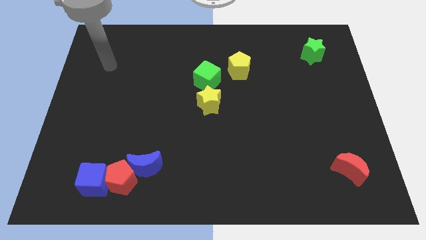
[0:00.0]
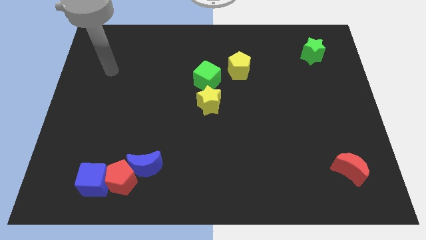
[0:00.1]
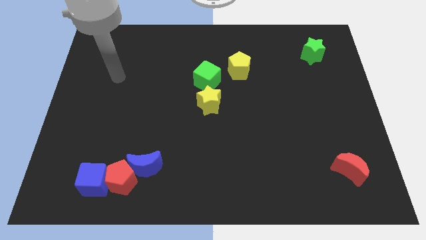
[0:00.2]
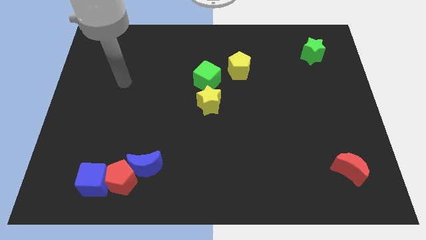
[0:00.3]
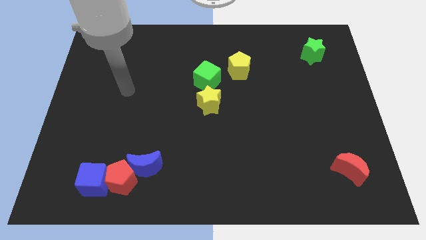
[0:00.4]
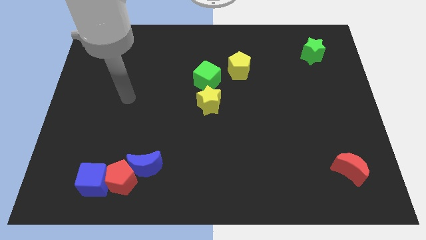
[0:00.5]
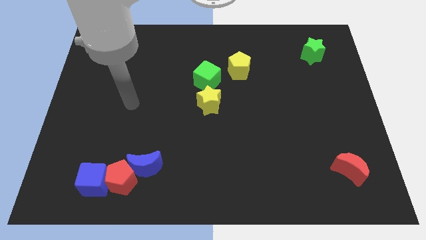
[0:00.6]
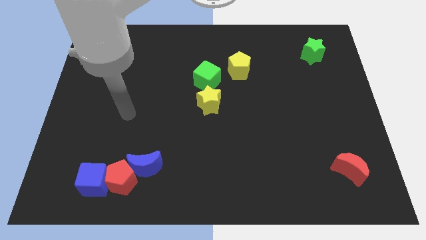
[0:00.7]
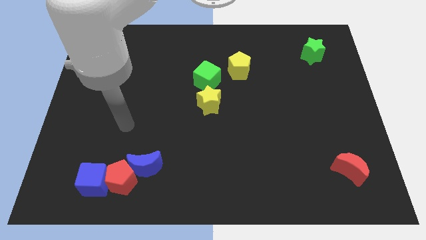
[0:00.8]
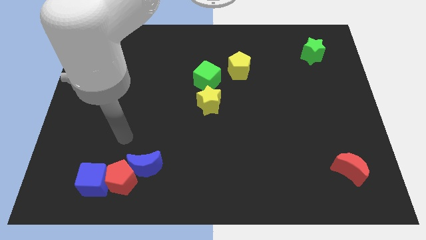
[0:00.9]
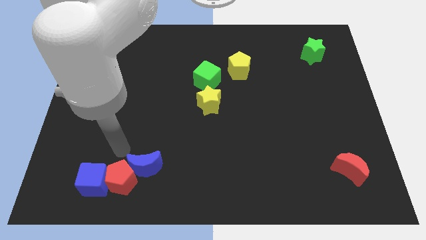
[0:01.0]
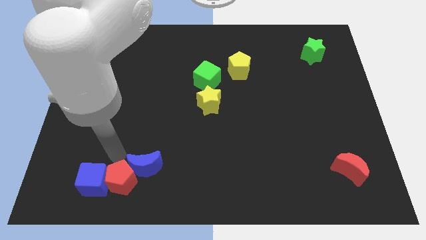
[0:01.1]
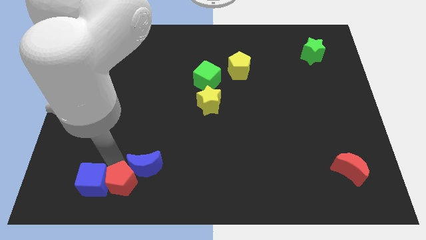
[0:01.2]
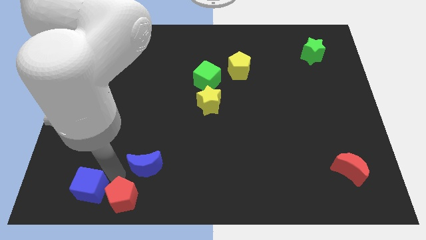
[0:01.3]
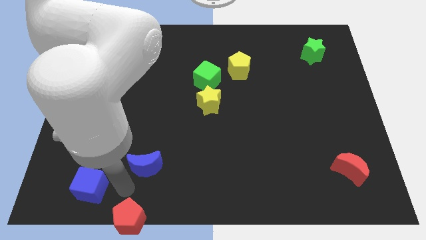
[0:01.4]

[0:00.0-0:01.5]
pull the blue moon apart from the red pentagon

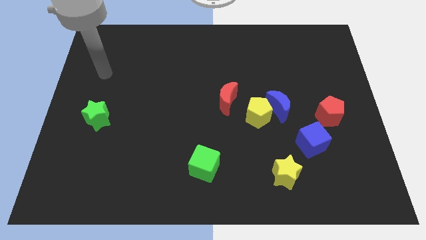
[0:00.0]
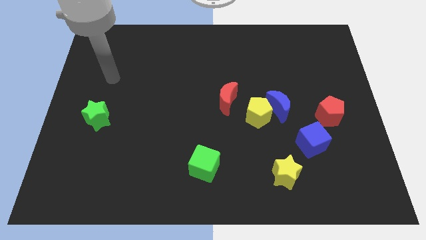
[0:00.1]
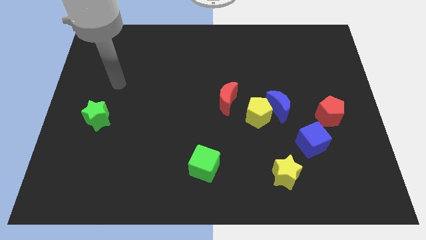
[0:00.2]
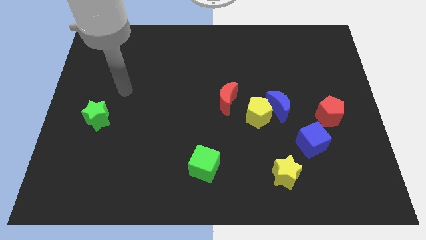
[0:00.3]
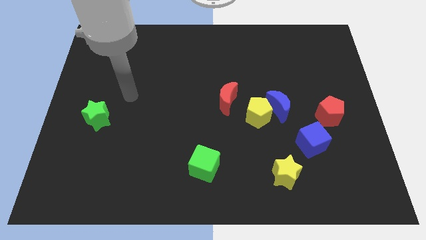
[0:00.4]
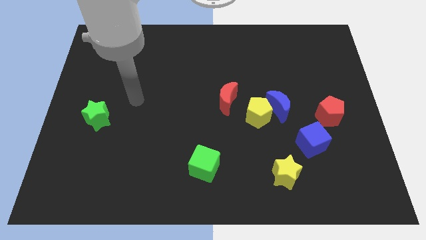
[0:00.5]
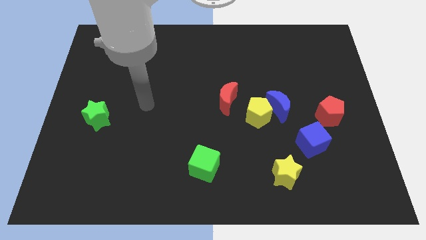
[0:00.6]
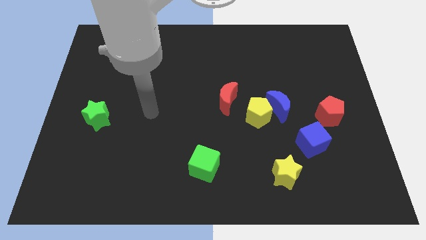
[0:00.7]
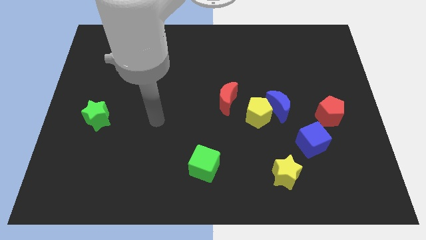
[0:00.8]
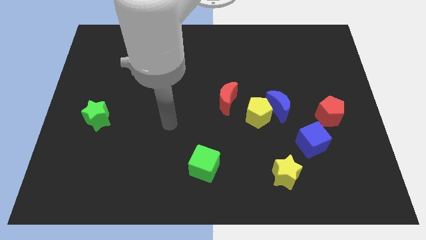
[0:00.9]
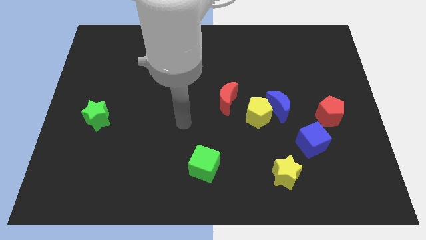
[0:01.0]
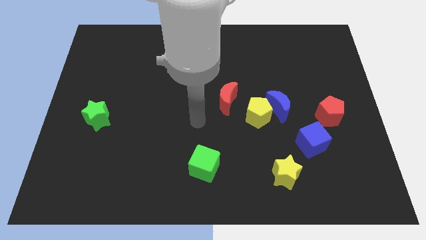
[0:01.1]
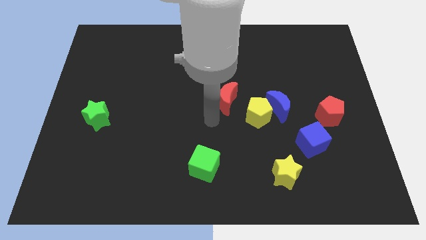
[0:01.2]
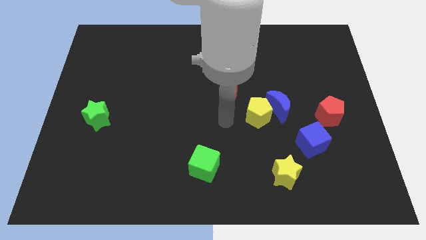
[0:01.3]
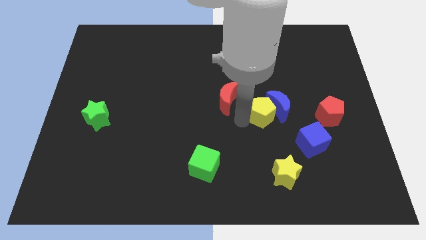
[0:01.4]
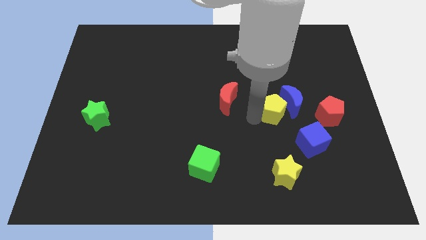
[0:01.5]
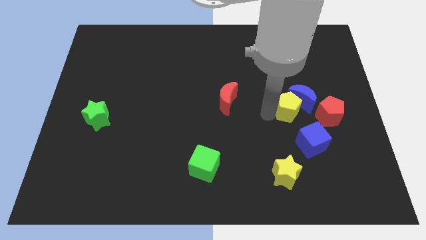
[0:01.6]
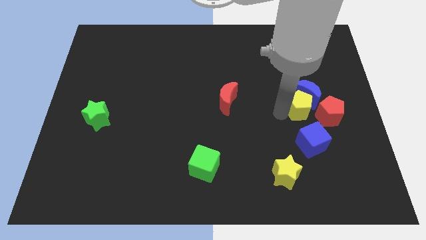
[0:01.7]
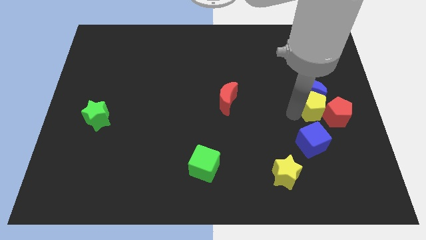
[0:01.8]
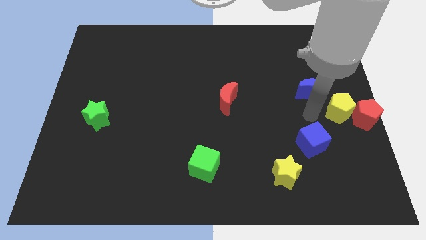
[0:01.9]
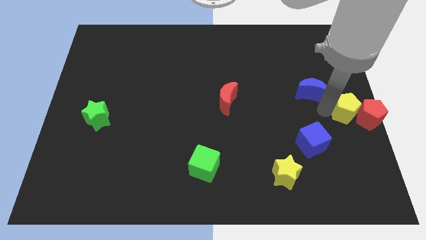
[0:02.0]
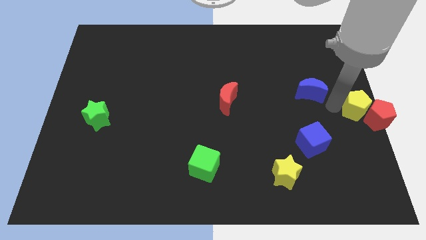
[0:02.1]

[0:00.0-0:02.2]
pull the blue moon apart from the yellow pentagon

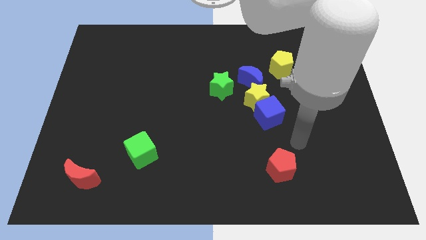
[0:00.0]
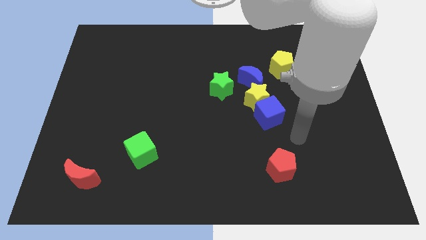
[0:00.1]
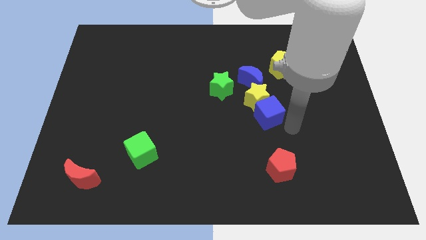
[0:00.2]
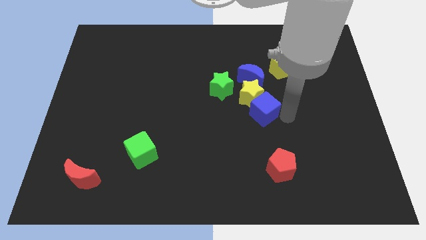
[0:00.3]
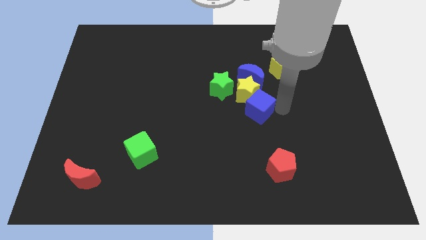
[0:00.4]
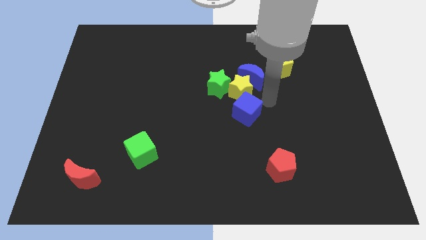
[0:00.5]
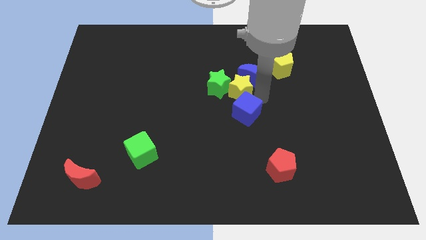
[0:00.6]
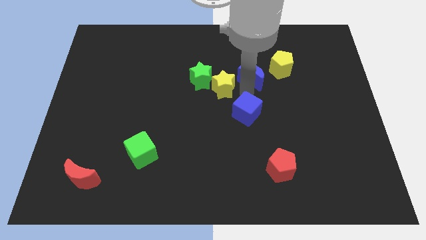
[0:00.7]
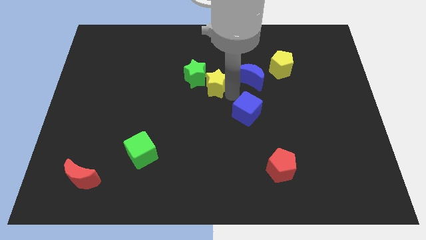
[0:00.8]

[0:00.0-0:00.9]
pull the blue cube apart from the yellow star

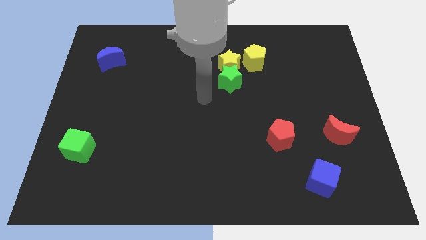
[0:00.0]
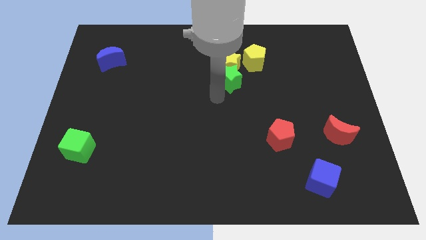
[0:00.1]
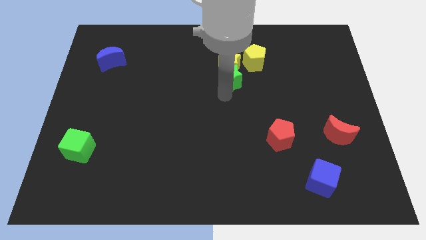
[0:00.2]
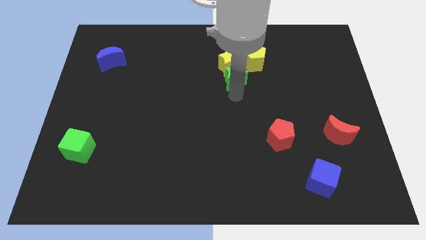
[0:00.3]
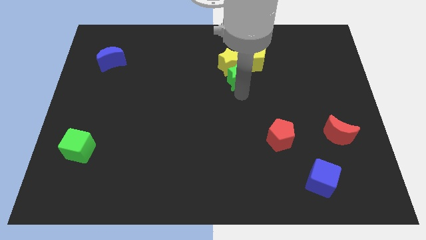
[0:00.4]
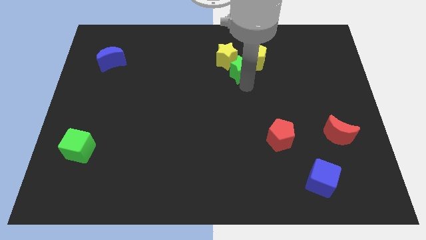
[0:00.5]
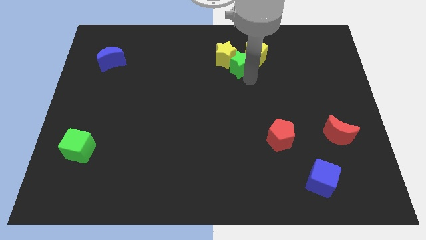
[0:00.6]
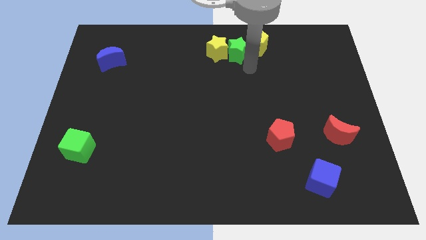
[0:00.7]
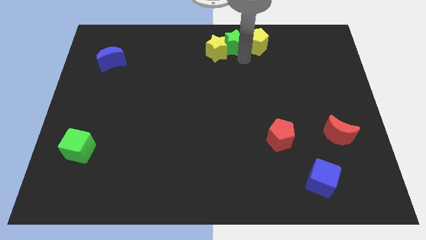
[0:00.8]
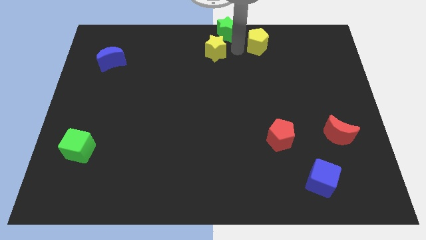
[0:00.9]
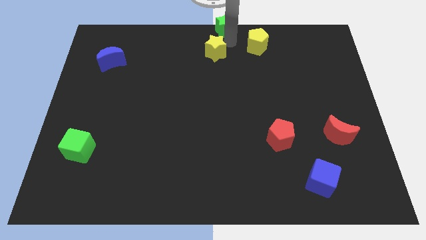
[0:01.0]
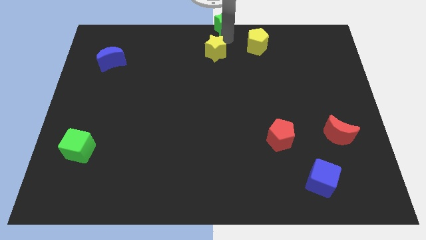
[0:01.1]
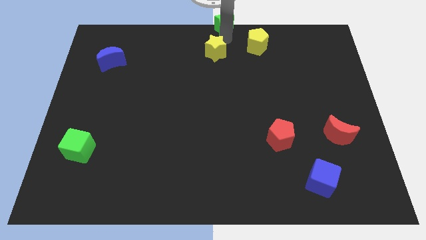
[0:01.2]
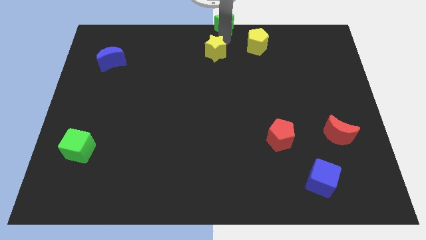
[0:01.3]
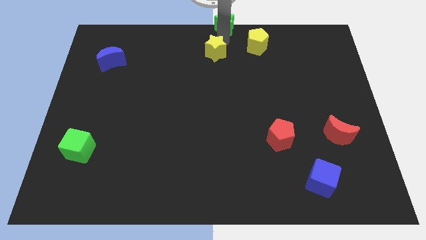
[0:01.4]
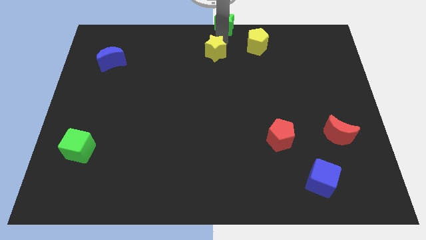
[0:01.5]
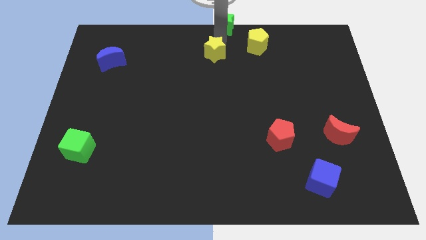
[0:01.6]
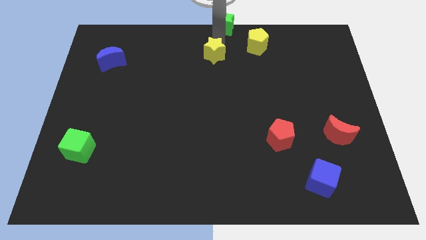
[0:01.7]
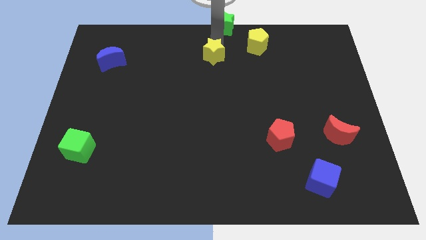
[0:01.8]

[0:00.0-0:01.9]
pull the yellow star apart from the green star and yellow pentagon

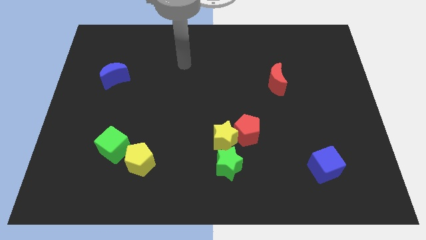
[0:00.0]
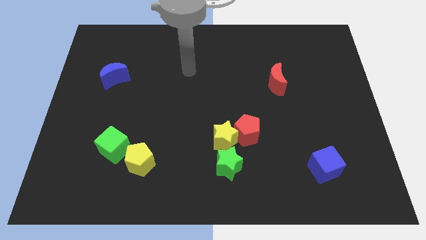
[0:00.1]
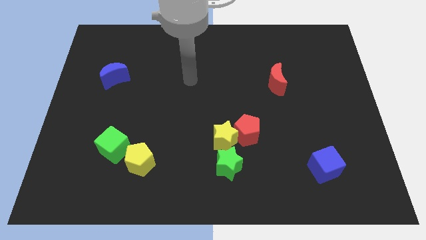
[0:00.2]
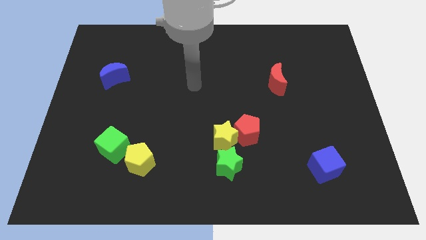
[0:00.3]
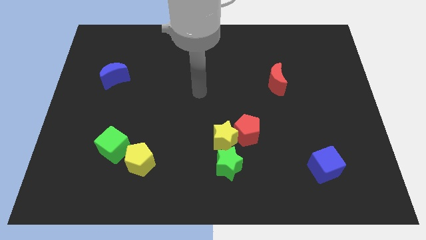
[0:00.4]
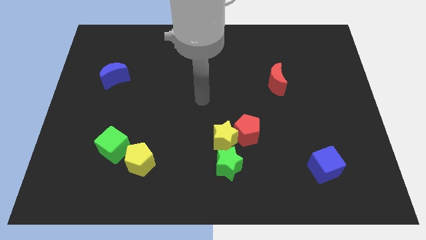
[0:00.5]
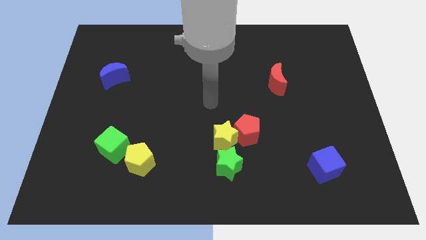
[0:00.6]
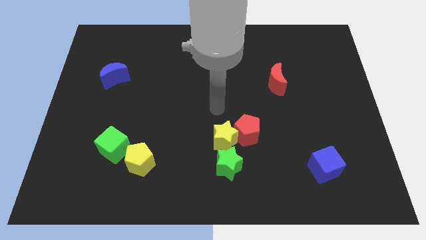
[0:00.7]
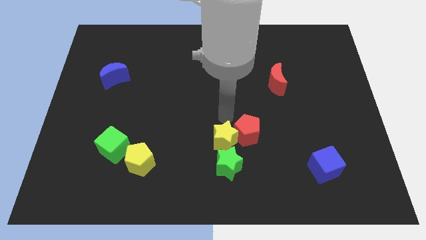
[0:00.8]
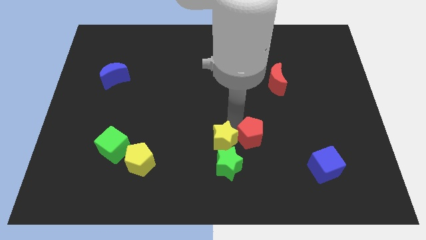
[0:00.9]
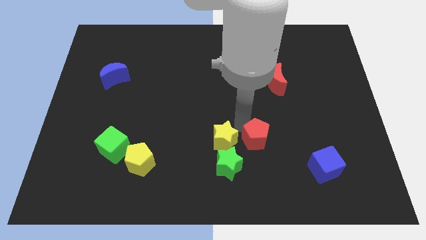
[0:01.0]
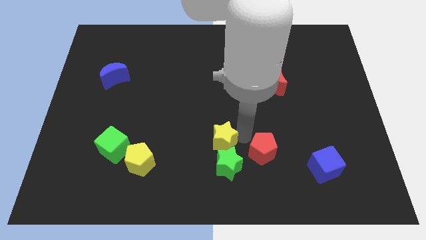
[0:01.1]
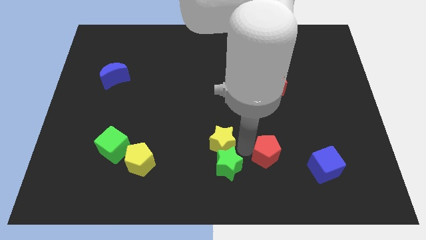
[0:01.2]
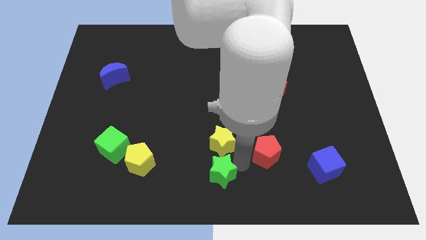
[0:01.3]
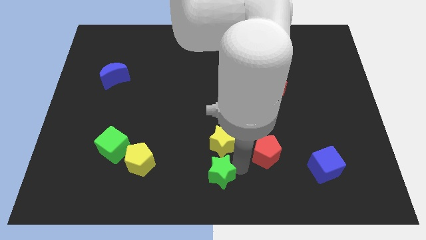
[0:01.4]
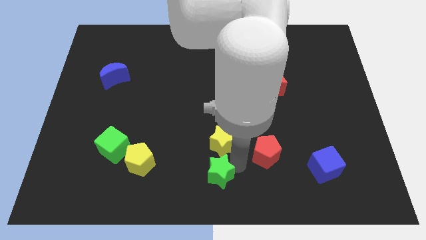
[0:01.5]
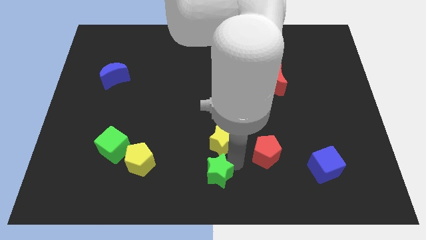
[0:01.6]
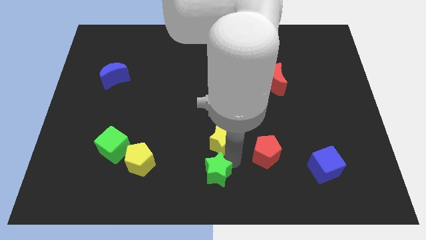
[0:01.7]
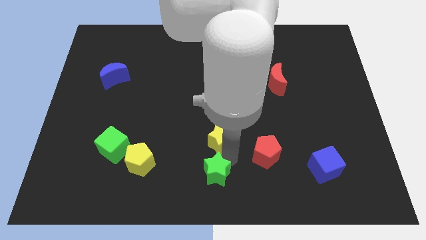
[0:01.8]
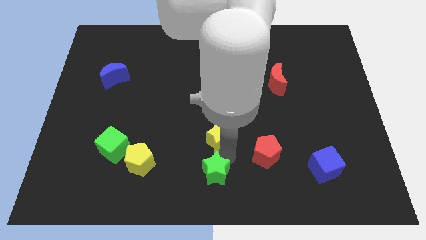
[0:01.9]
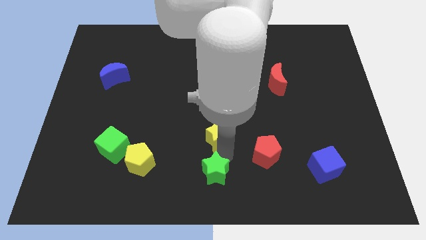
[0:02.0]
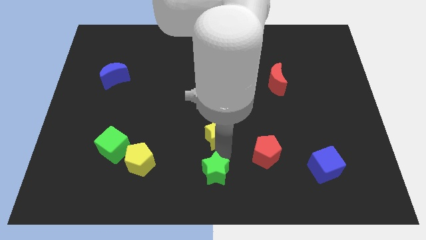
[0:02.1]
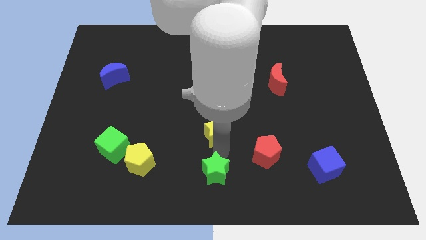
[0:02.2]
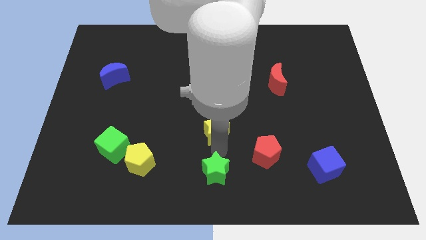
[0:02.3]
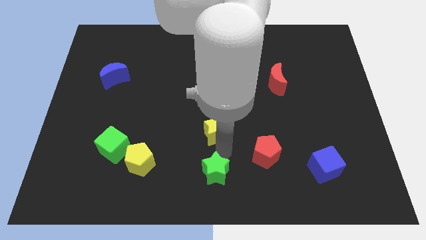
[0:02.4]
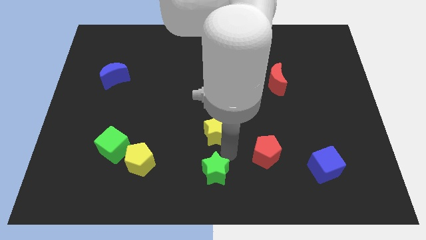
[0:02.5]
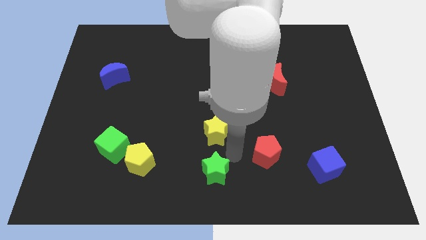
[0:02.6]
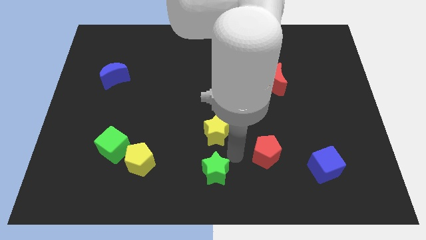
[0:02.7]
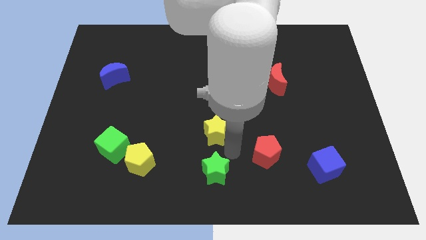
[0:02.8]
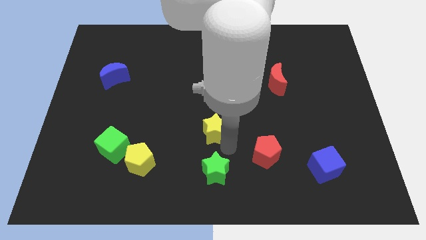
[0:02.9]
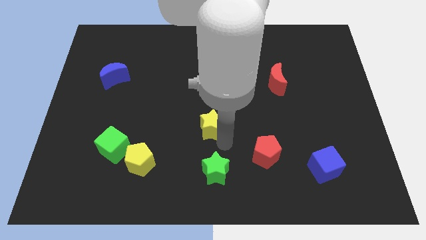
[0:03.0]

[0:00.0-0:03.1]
move the yellow star away from the red pentagon and green star
